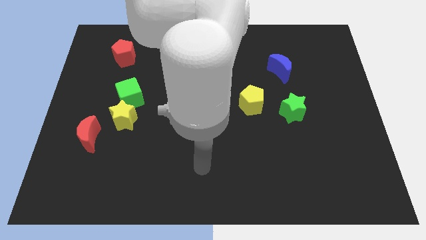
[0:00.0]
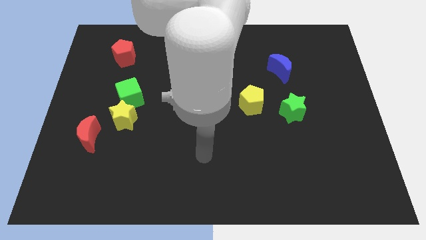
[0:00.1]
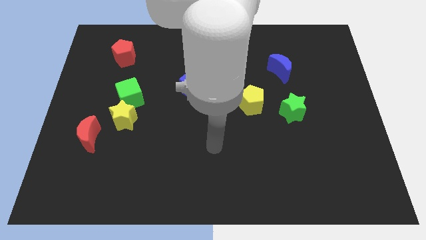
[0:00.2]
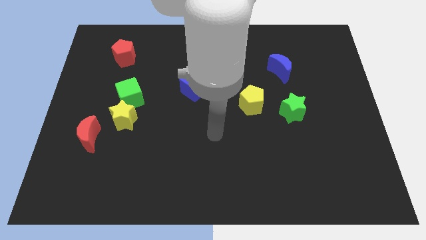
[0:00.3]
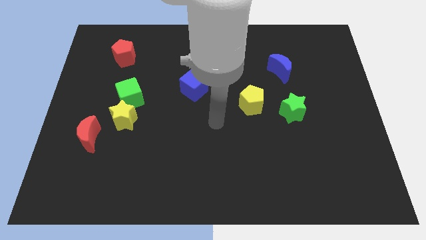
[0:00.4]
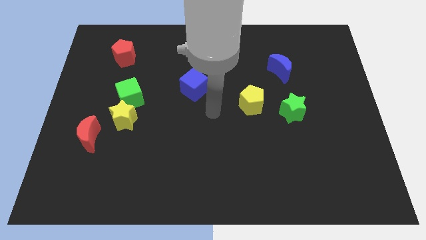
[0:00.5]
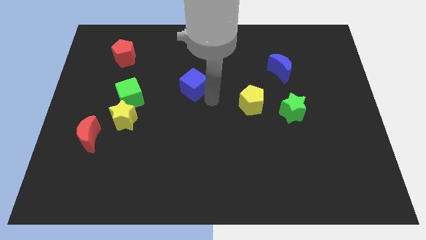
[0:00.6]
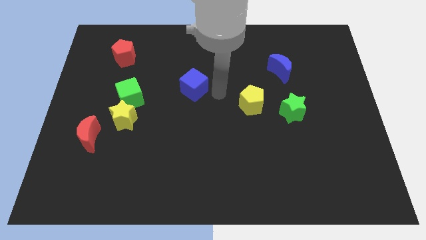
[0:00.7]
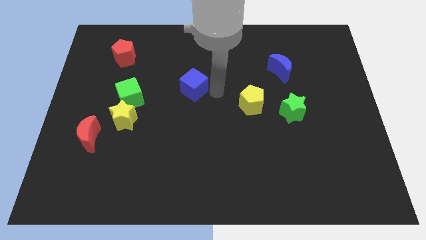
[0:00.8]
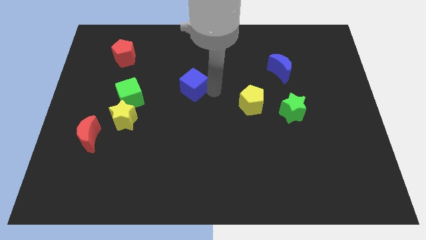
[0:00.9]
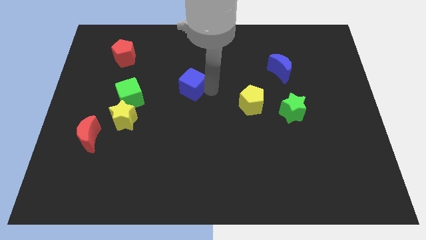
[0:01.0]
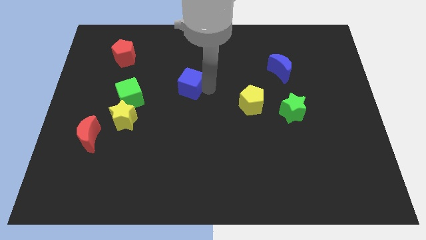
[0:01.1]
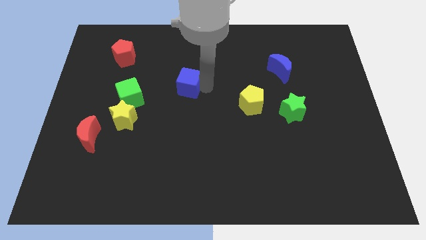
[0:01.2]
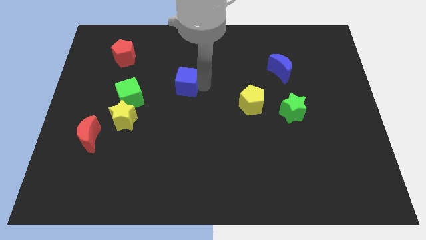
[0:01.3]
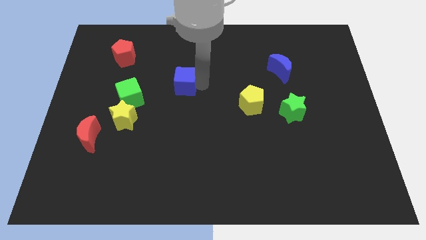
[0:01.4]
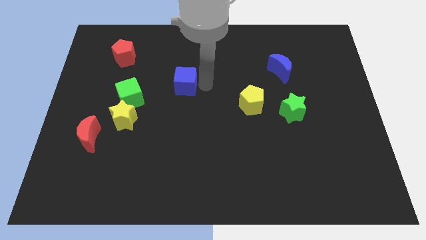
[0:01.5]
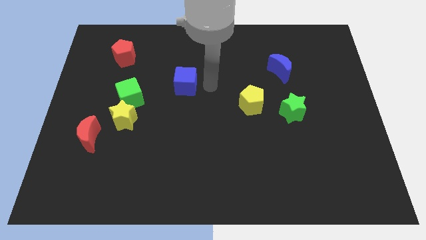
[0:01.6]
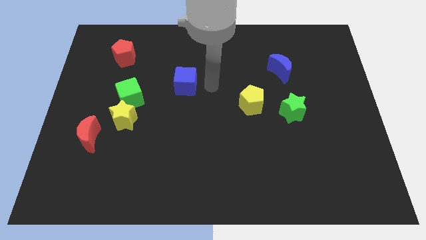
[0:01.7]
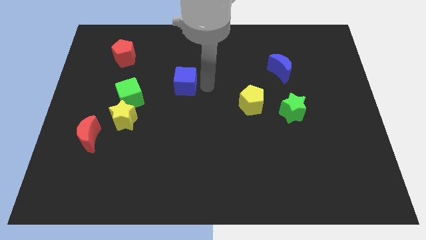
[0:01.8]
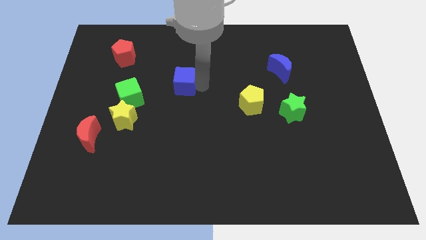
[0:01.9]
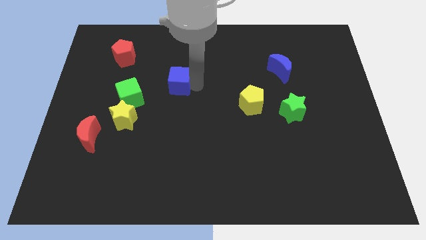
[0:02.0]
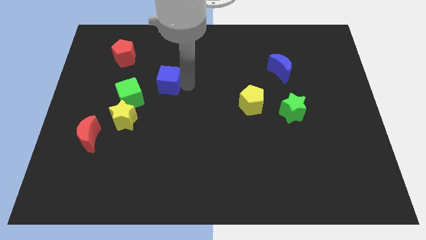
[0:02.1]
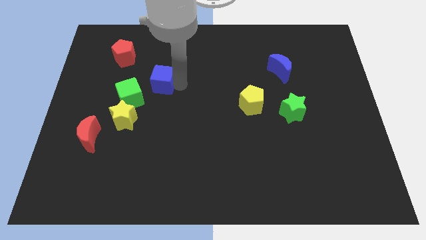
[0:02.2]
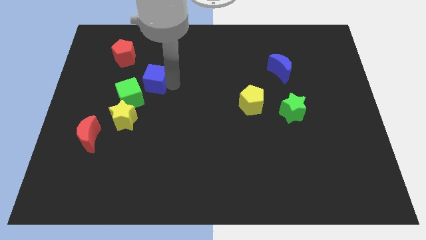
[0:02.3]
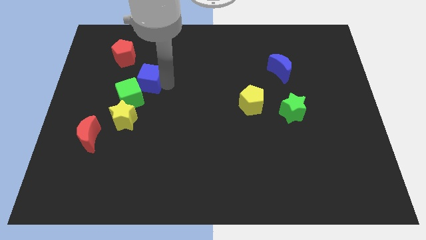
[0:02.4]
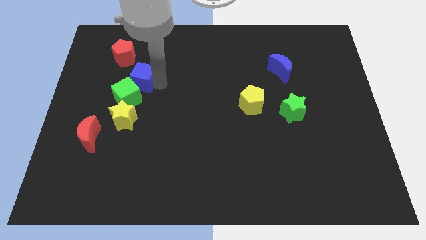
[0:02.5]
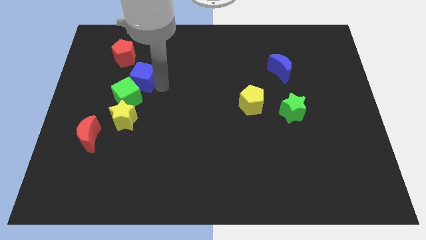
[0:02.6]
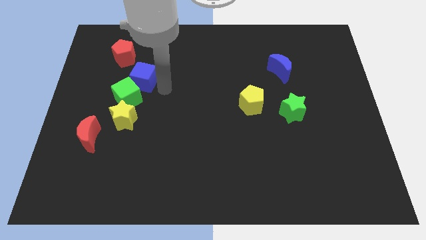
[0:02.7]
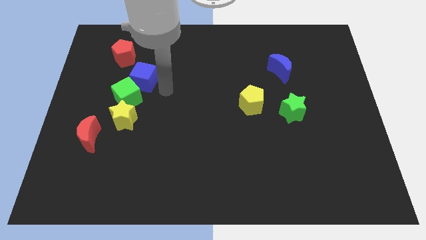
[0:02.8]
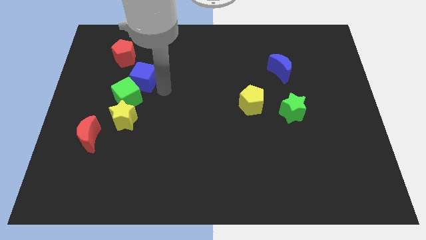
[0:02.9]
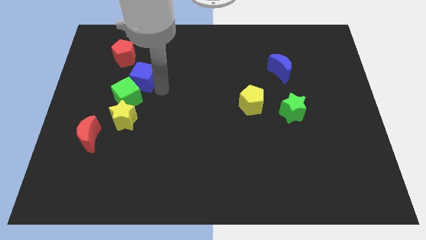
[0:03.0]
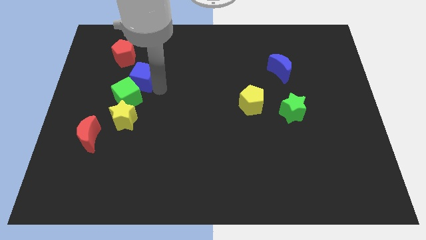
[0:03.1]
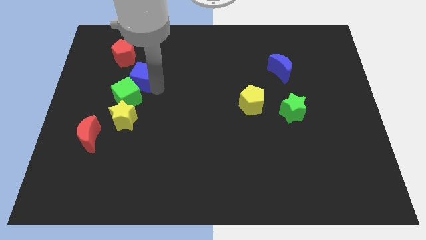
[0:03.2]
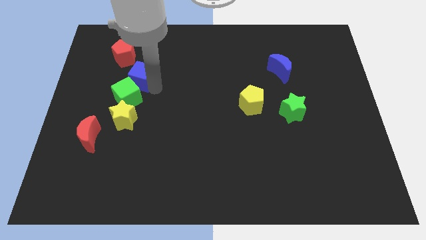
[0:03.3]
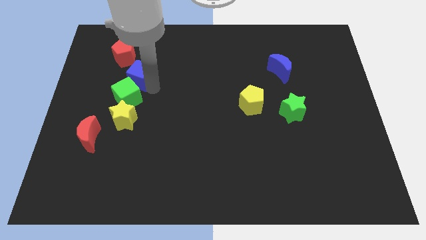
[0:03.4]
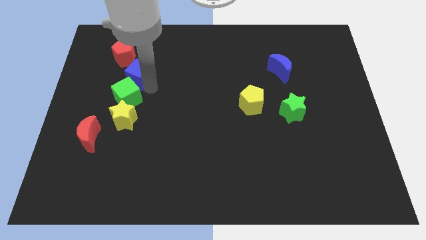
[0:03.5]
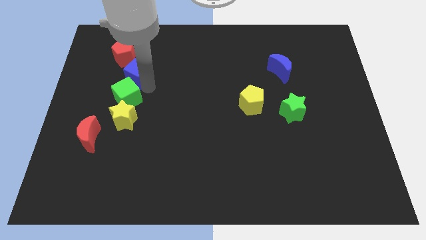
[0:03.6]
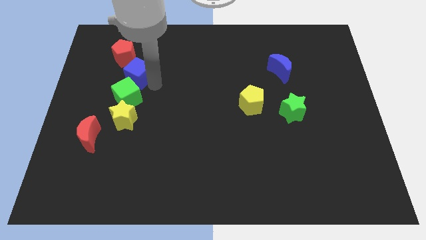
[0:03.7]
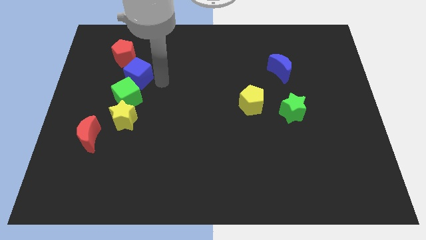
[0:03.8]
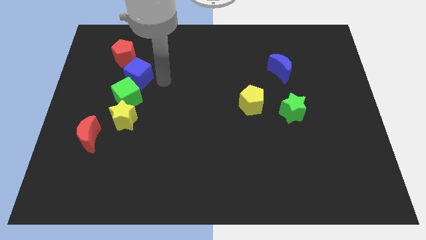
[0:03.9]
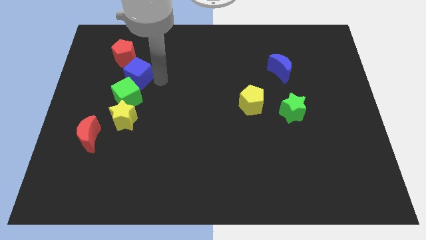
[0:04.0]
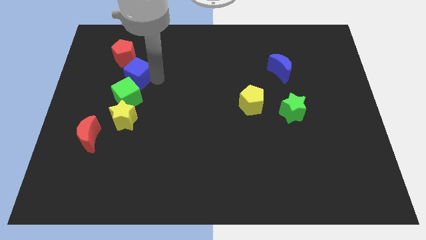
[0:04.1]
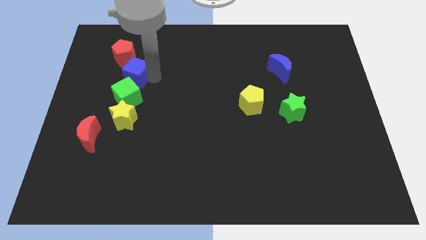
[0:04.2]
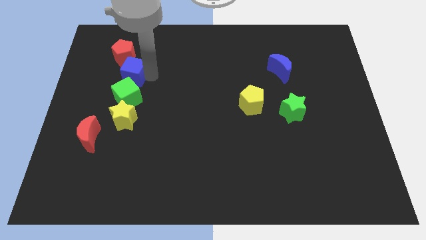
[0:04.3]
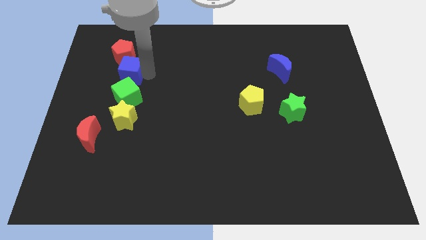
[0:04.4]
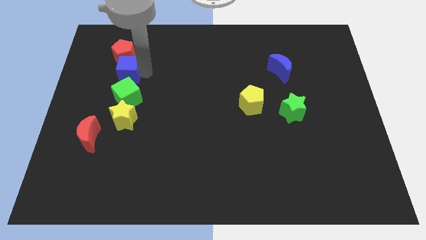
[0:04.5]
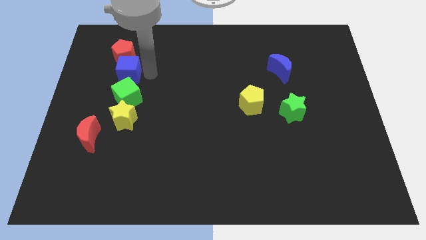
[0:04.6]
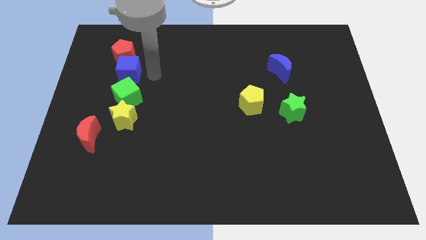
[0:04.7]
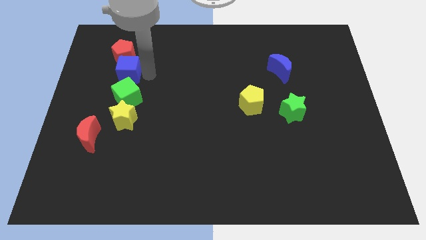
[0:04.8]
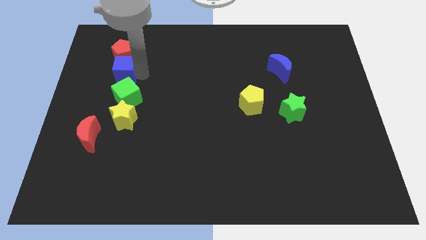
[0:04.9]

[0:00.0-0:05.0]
slide the blue cube to the bottom left of the red pentagon

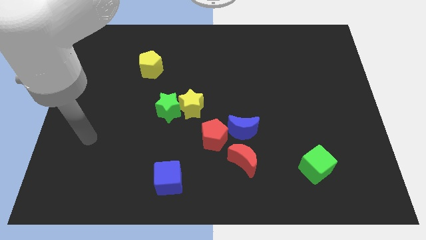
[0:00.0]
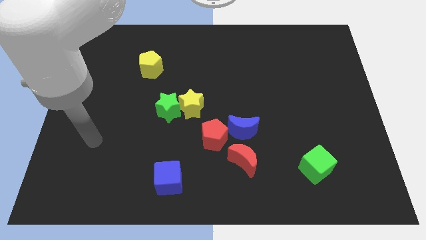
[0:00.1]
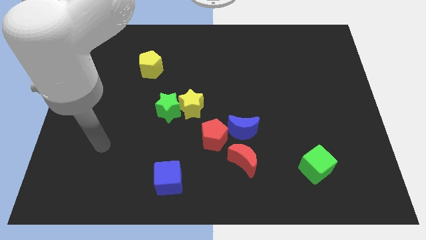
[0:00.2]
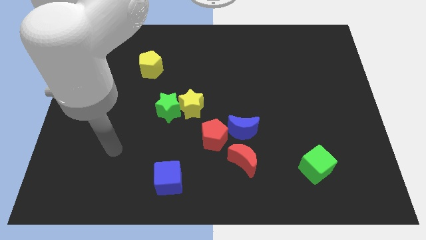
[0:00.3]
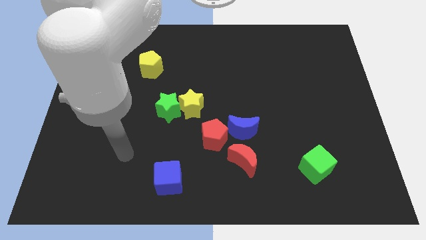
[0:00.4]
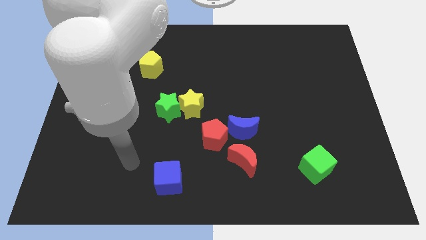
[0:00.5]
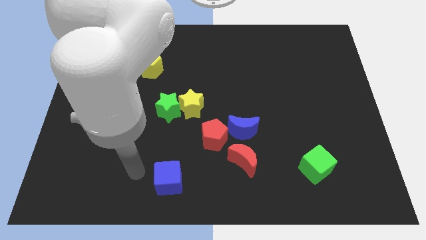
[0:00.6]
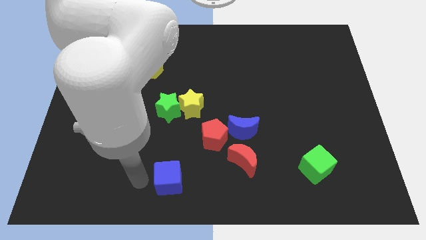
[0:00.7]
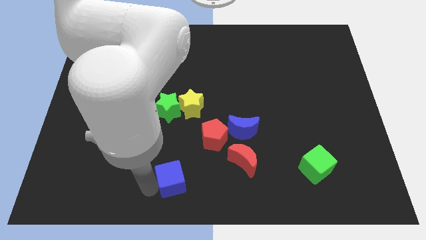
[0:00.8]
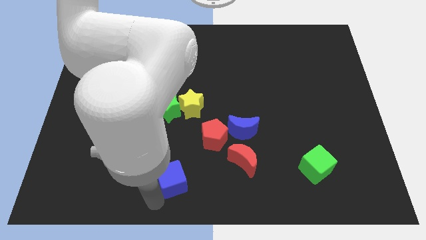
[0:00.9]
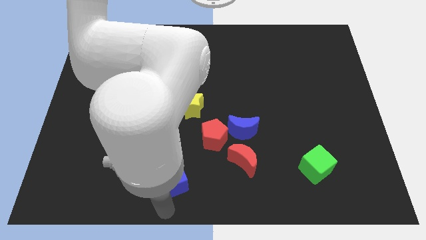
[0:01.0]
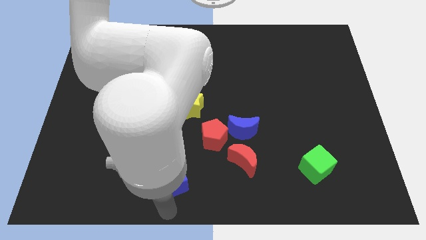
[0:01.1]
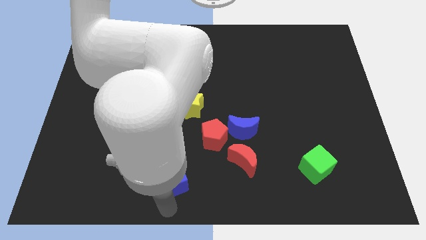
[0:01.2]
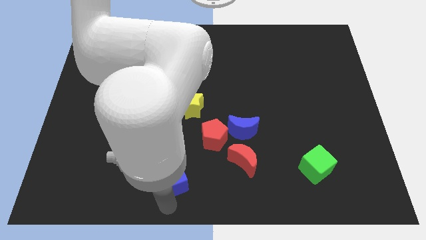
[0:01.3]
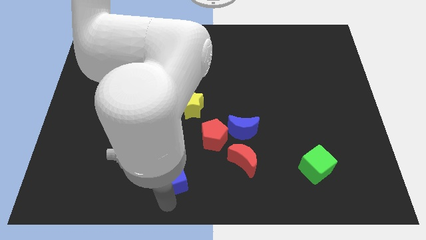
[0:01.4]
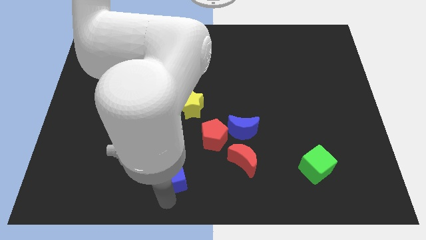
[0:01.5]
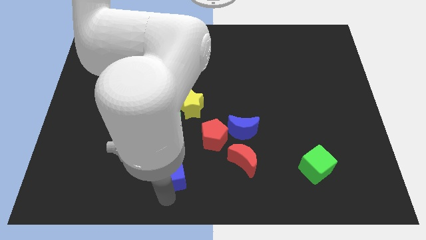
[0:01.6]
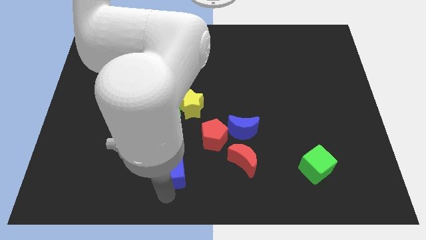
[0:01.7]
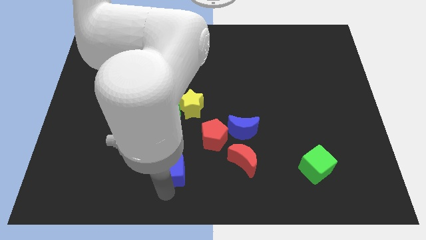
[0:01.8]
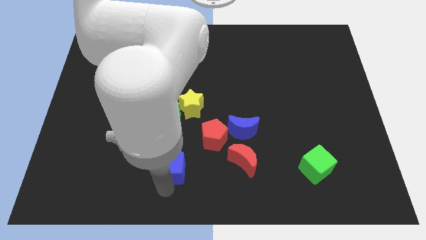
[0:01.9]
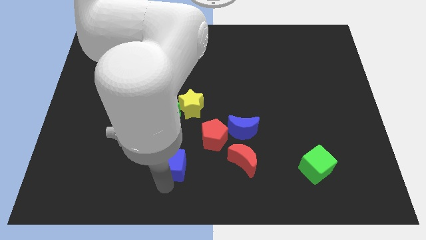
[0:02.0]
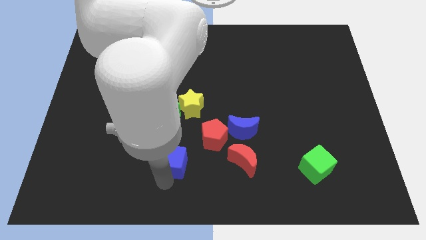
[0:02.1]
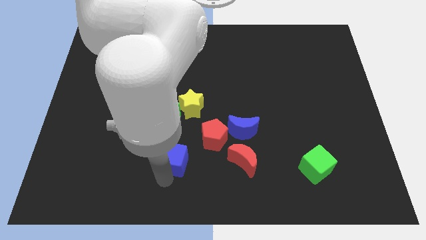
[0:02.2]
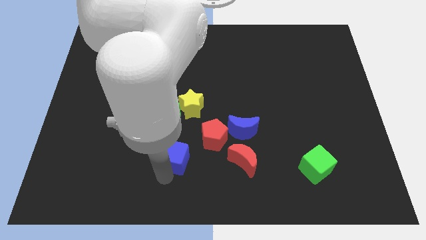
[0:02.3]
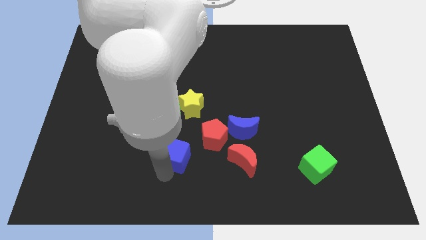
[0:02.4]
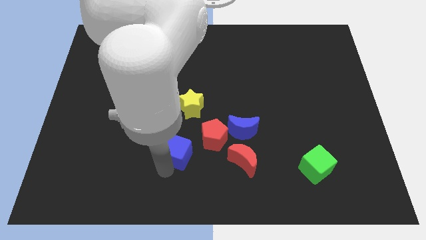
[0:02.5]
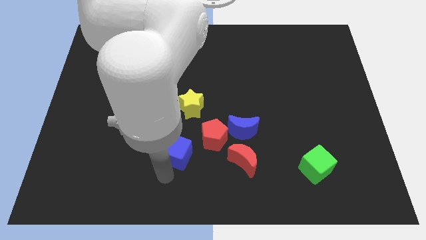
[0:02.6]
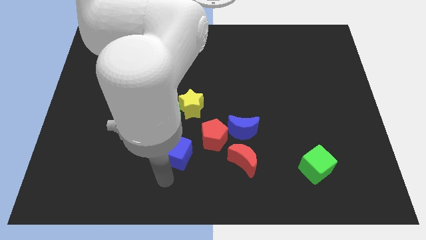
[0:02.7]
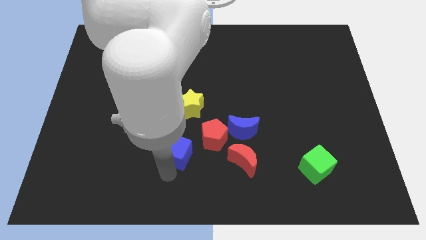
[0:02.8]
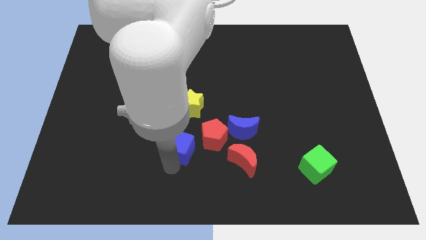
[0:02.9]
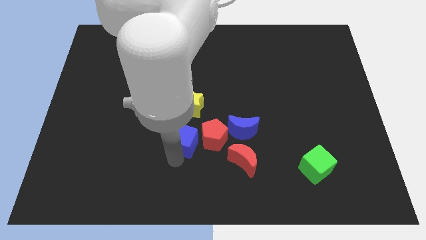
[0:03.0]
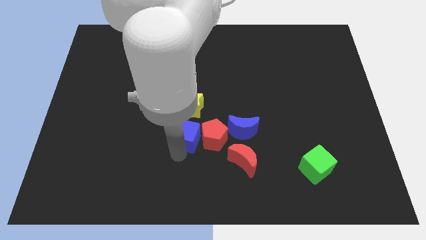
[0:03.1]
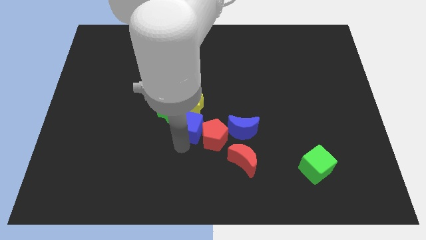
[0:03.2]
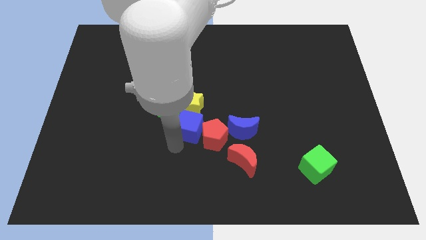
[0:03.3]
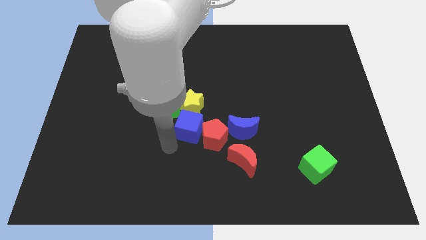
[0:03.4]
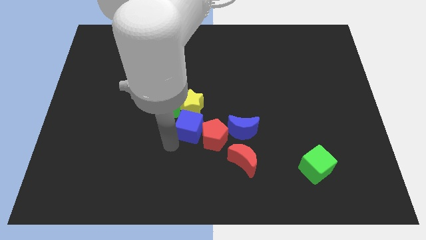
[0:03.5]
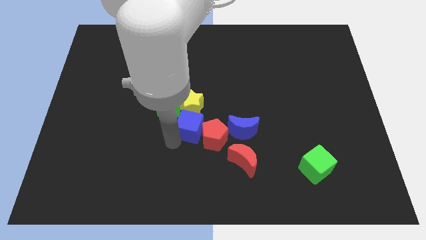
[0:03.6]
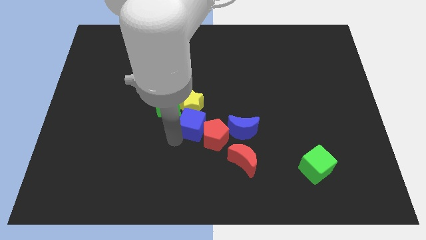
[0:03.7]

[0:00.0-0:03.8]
put the blue cube just right of the green star
